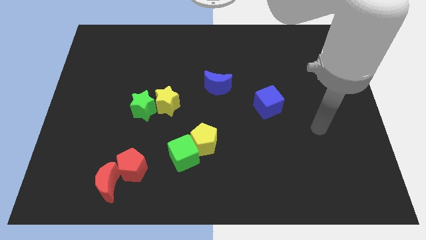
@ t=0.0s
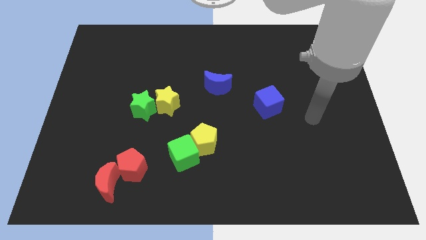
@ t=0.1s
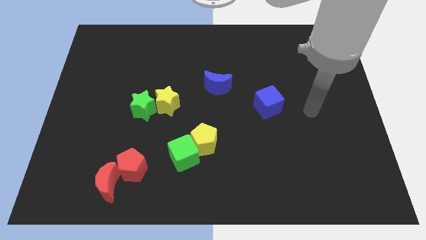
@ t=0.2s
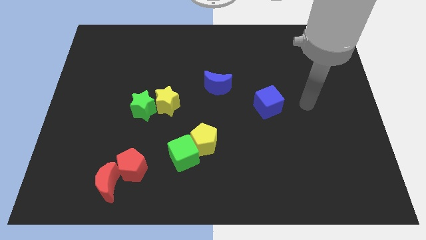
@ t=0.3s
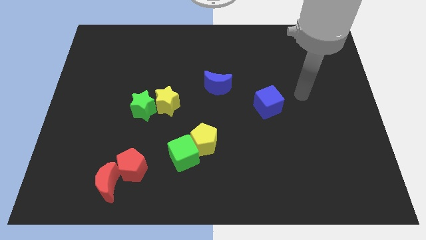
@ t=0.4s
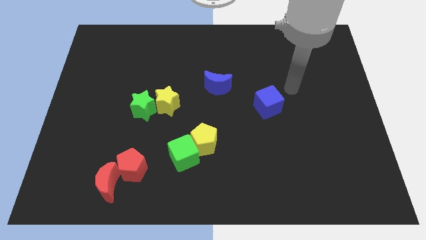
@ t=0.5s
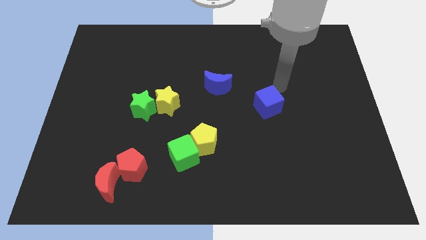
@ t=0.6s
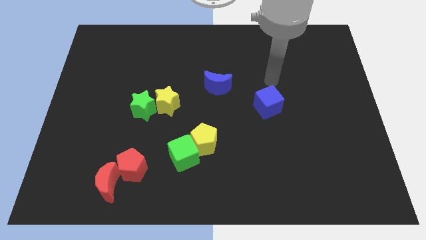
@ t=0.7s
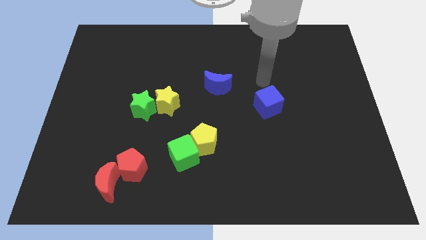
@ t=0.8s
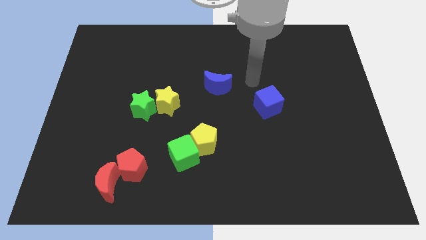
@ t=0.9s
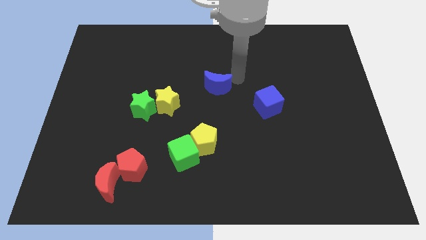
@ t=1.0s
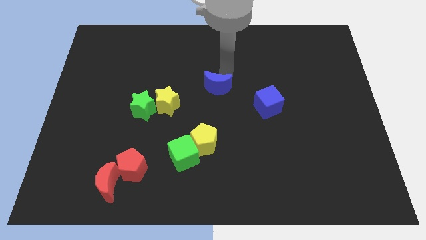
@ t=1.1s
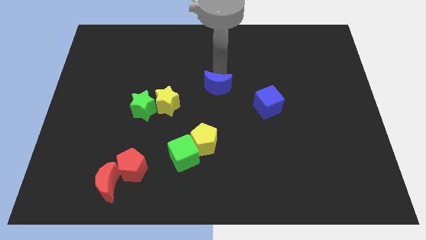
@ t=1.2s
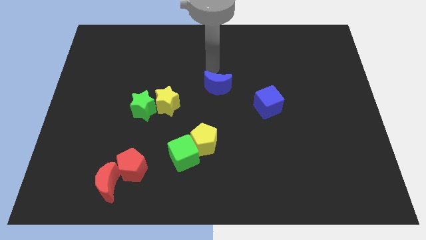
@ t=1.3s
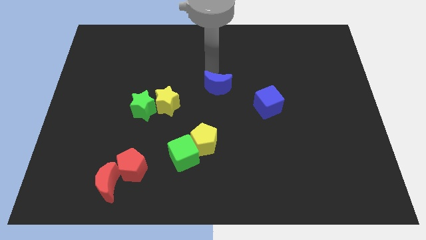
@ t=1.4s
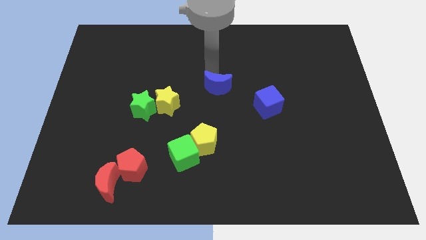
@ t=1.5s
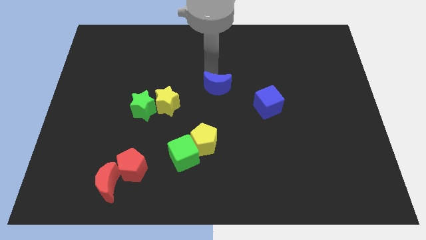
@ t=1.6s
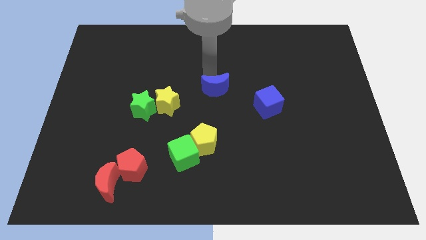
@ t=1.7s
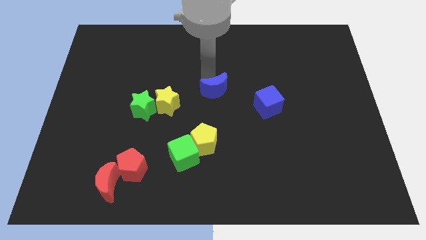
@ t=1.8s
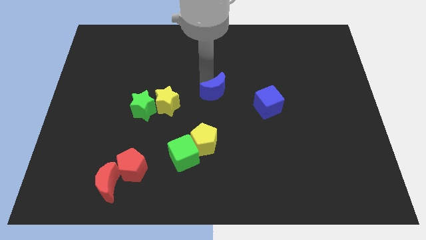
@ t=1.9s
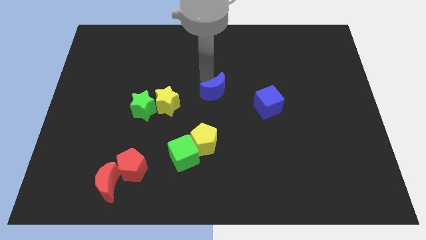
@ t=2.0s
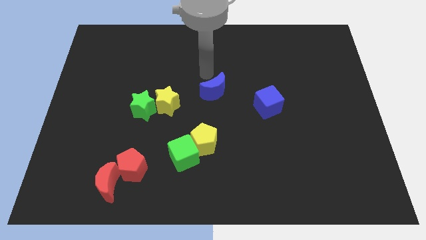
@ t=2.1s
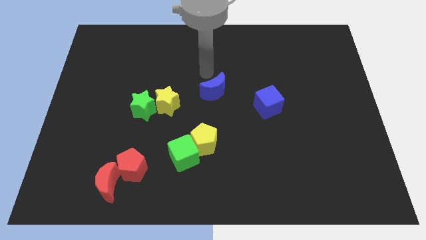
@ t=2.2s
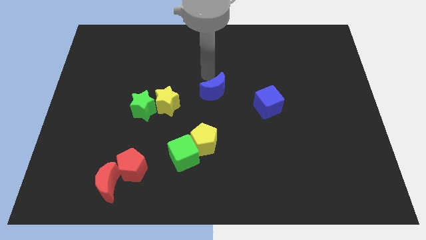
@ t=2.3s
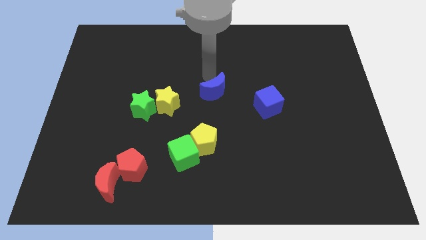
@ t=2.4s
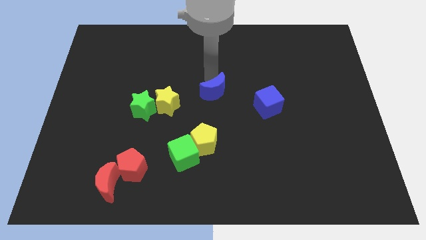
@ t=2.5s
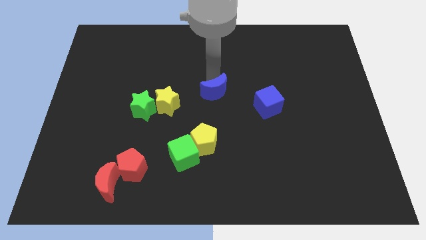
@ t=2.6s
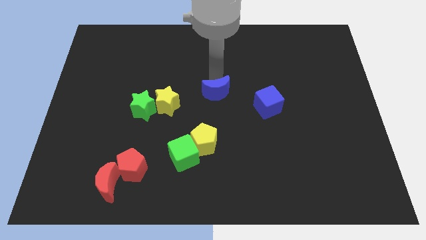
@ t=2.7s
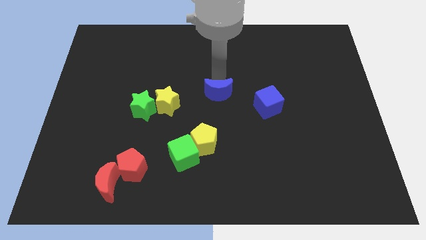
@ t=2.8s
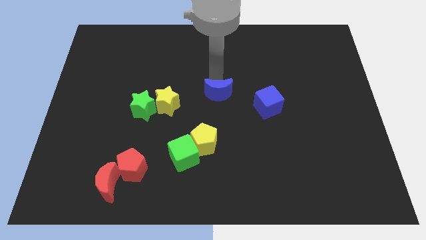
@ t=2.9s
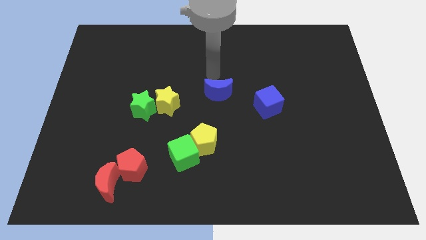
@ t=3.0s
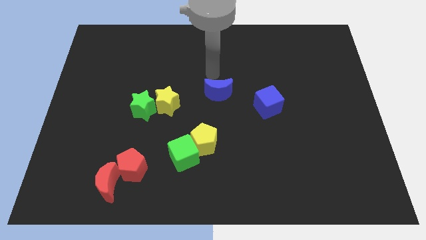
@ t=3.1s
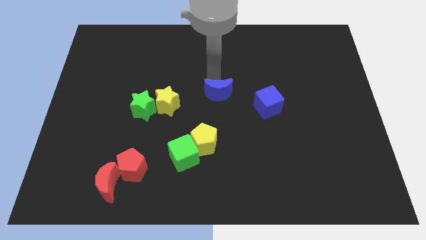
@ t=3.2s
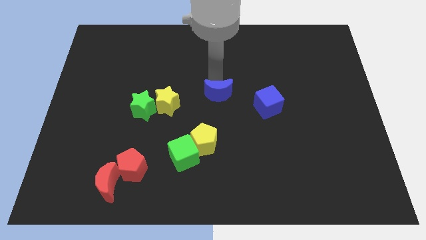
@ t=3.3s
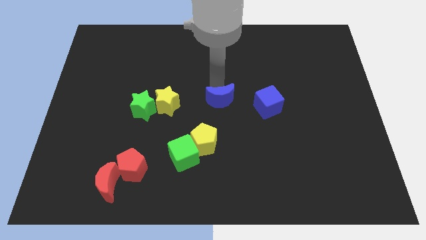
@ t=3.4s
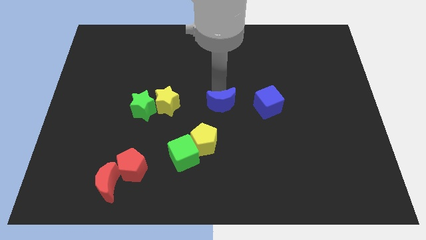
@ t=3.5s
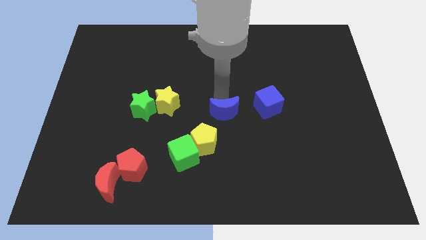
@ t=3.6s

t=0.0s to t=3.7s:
move the blue moon downwards a little

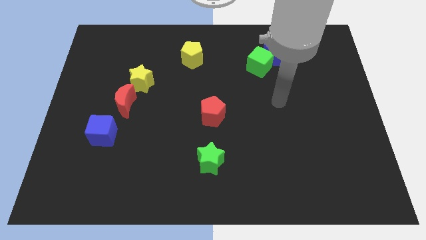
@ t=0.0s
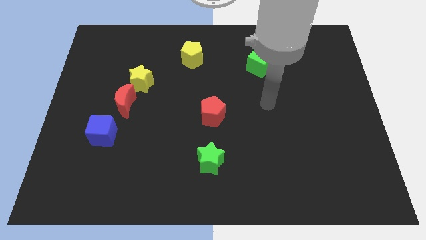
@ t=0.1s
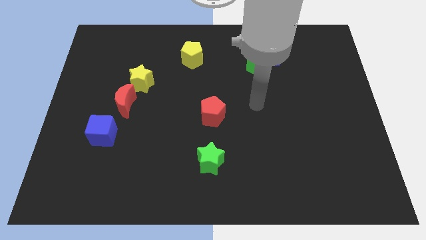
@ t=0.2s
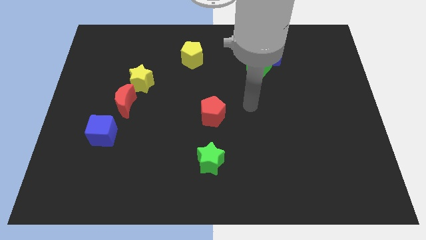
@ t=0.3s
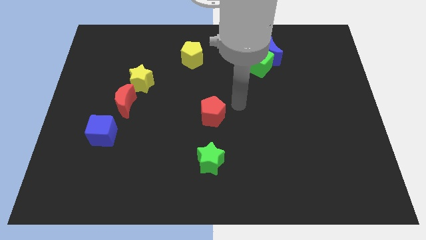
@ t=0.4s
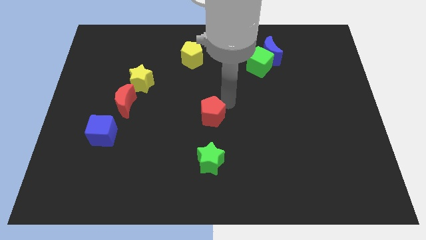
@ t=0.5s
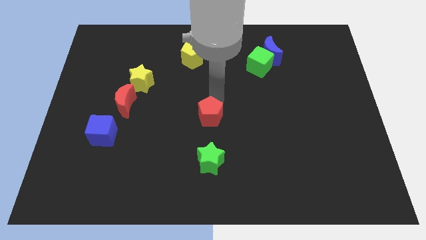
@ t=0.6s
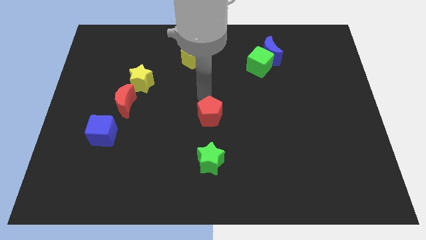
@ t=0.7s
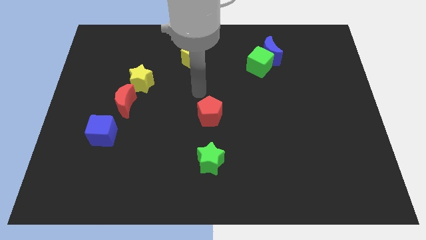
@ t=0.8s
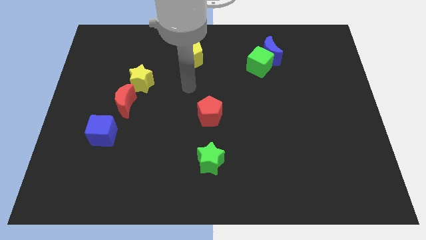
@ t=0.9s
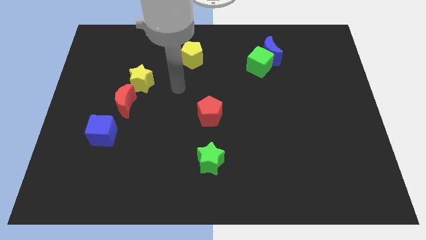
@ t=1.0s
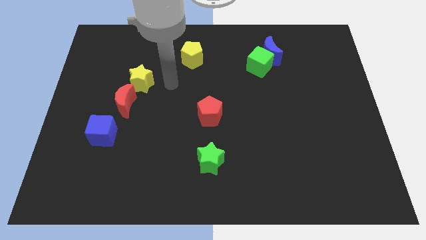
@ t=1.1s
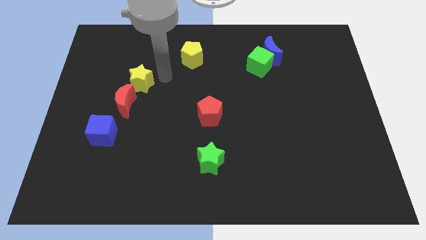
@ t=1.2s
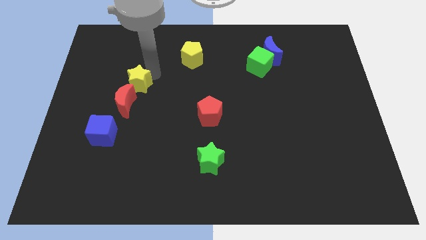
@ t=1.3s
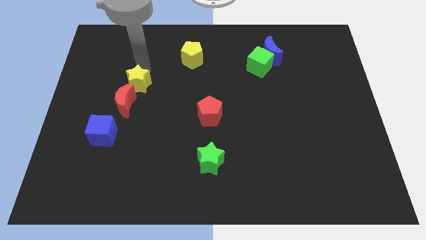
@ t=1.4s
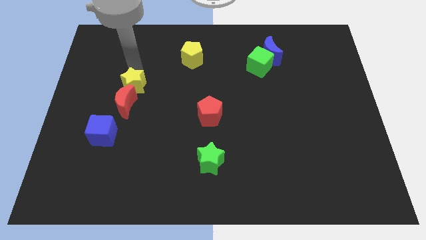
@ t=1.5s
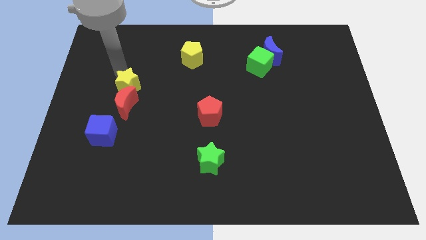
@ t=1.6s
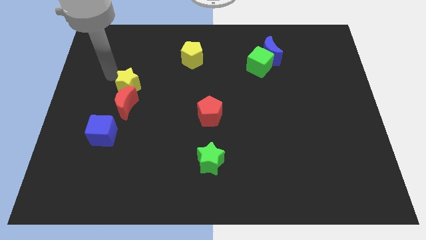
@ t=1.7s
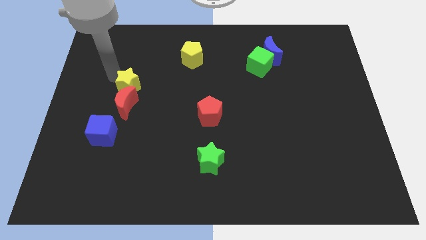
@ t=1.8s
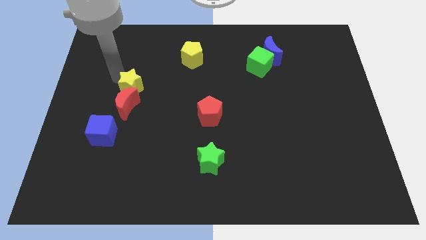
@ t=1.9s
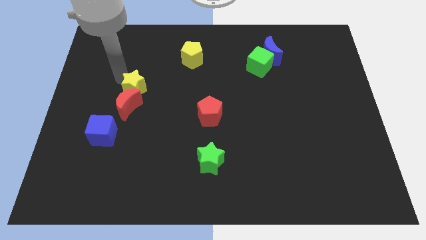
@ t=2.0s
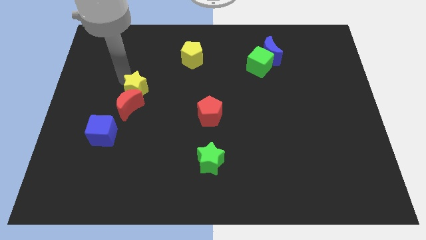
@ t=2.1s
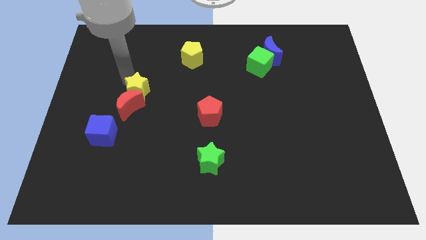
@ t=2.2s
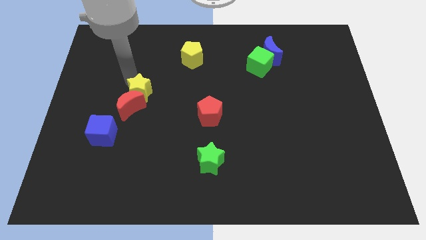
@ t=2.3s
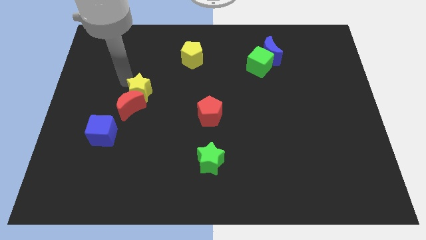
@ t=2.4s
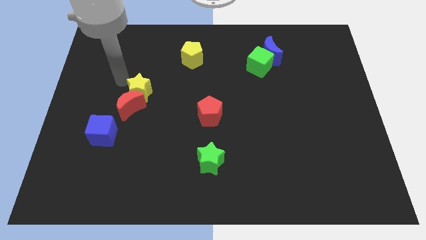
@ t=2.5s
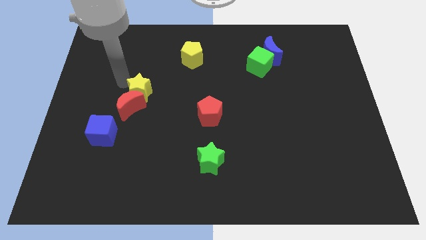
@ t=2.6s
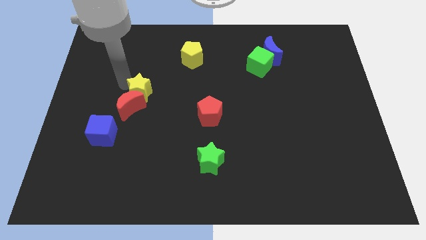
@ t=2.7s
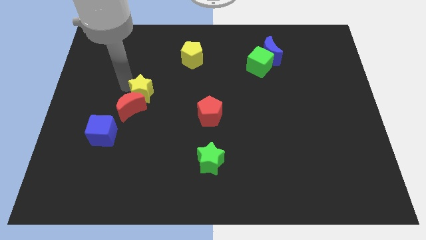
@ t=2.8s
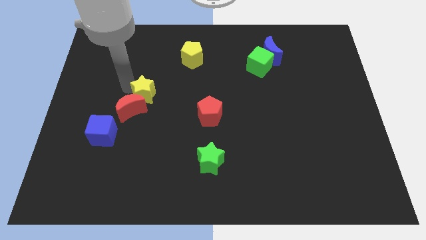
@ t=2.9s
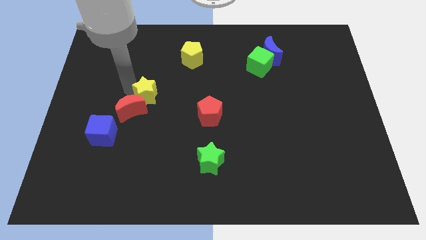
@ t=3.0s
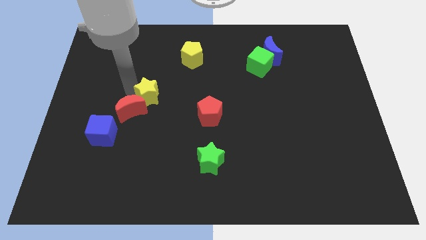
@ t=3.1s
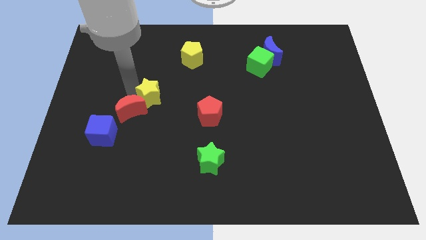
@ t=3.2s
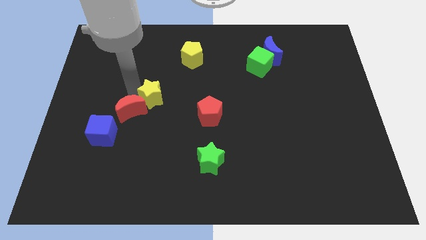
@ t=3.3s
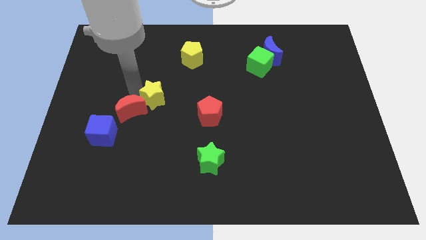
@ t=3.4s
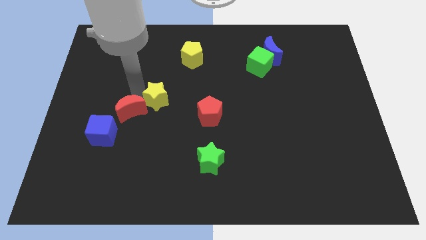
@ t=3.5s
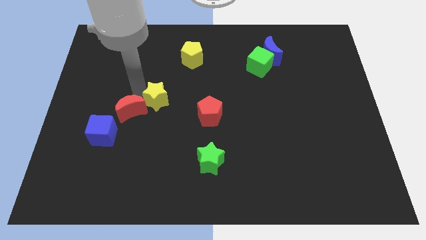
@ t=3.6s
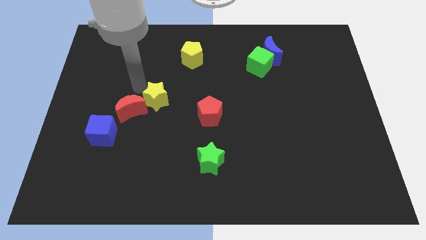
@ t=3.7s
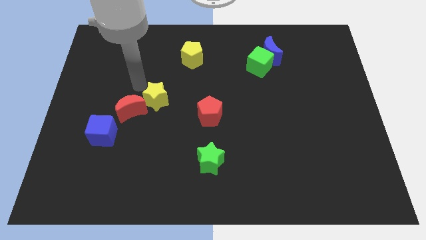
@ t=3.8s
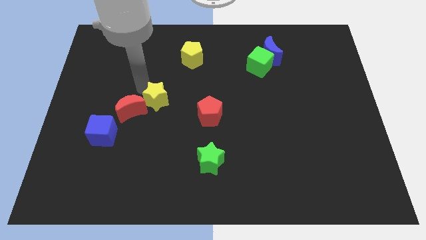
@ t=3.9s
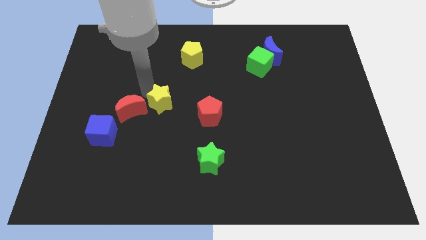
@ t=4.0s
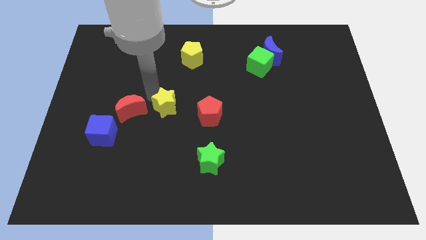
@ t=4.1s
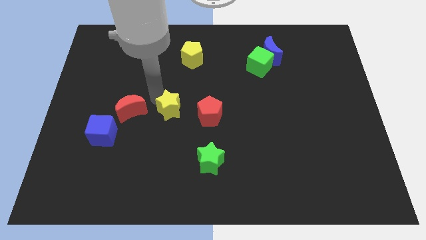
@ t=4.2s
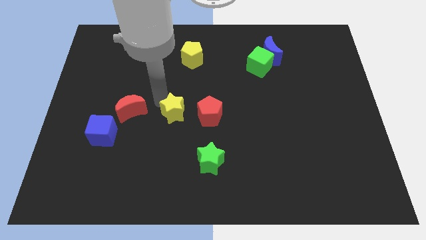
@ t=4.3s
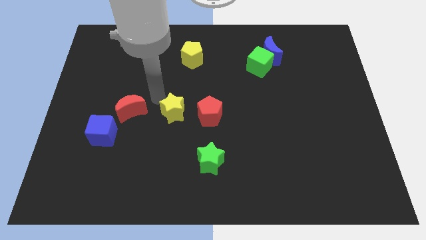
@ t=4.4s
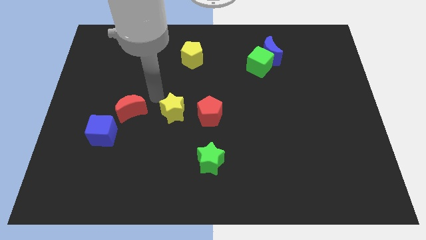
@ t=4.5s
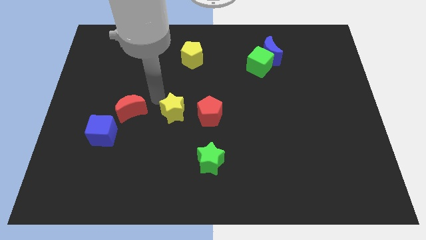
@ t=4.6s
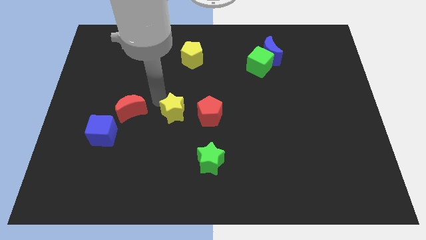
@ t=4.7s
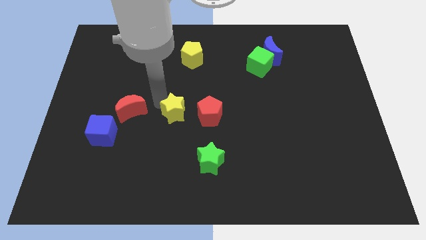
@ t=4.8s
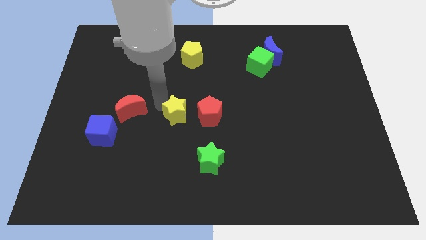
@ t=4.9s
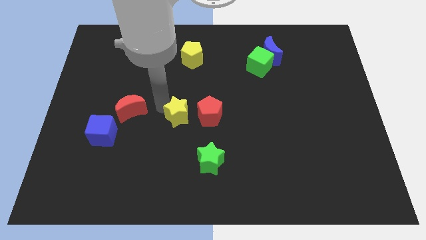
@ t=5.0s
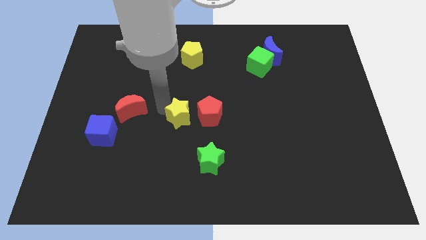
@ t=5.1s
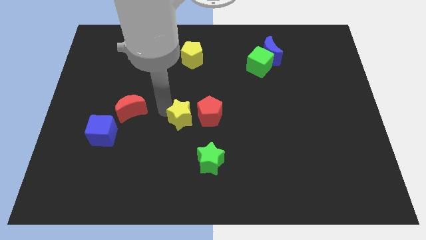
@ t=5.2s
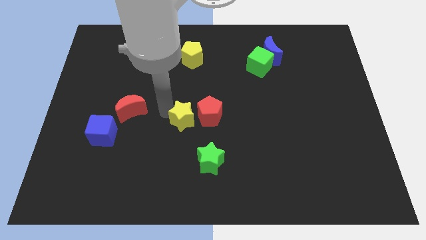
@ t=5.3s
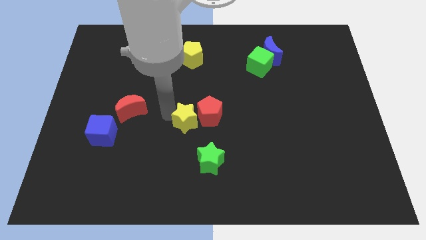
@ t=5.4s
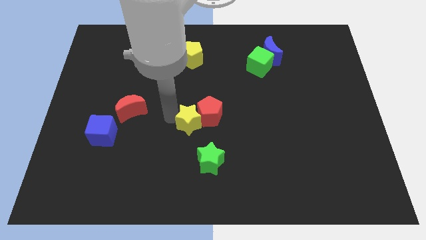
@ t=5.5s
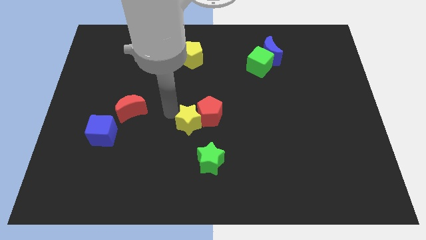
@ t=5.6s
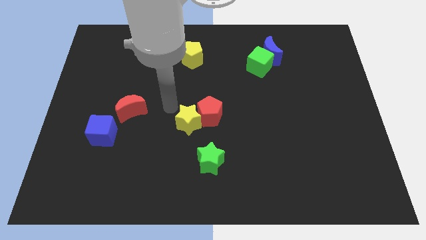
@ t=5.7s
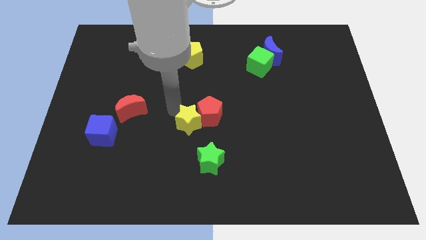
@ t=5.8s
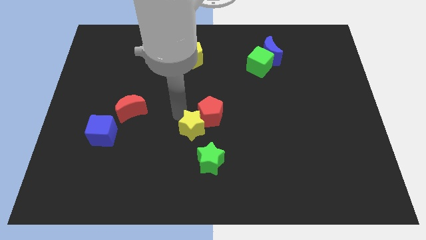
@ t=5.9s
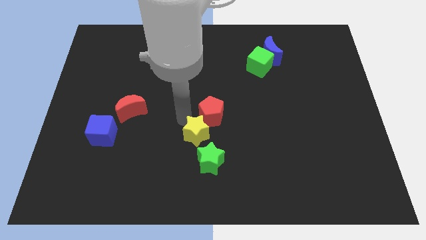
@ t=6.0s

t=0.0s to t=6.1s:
slide the yellow star down and right
